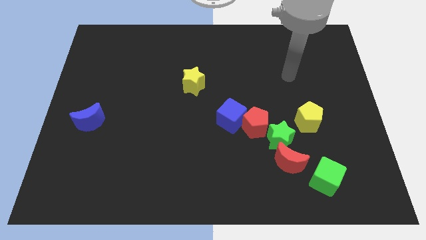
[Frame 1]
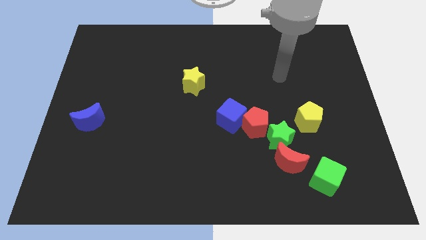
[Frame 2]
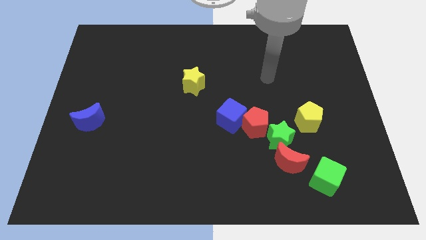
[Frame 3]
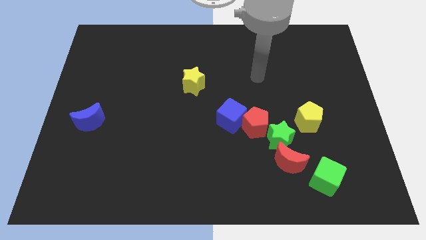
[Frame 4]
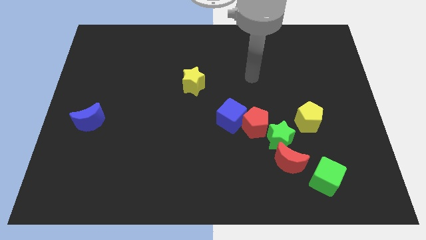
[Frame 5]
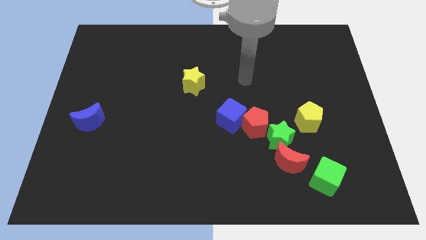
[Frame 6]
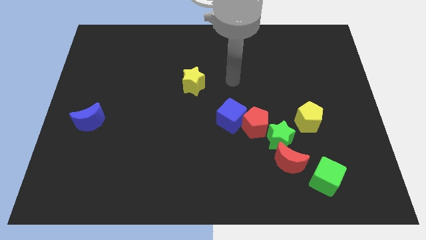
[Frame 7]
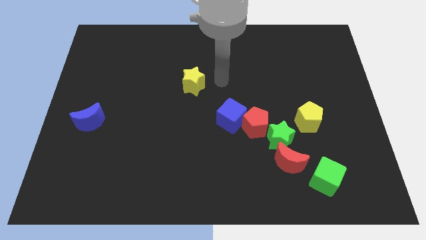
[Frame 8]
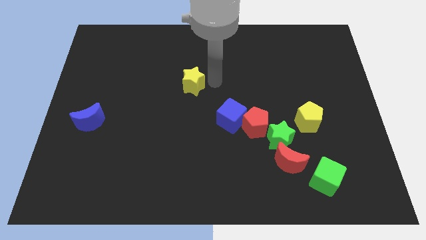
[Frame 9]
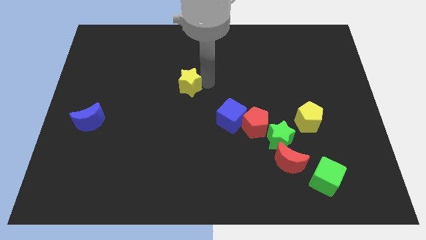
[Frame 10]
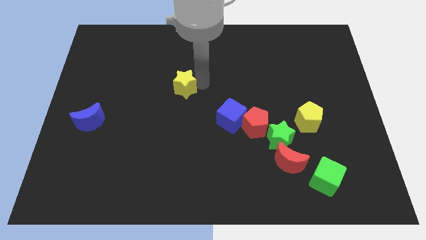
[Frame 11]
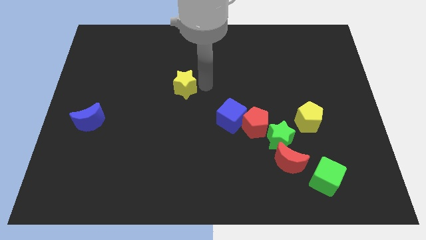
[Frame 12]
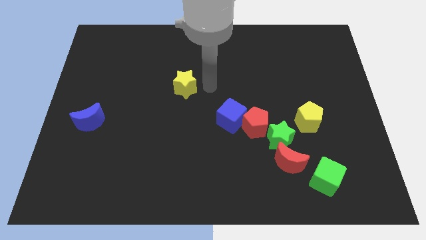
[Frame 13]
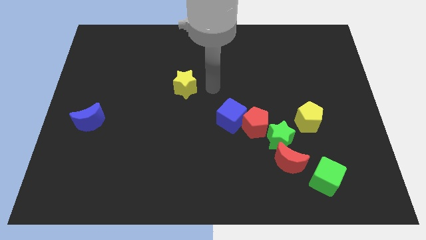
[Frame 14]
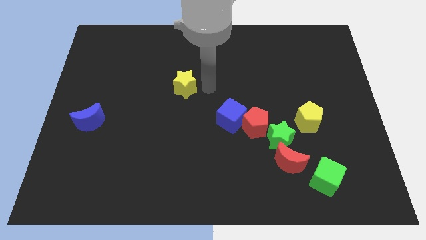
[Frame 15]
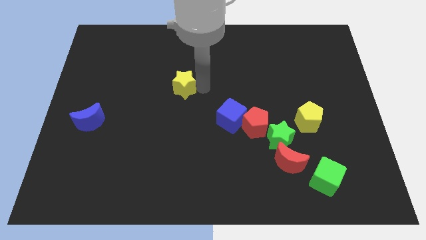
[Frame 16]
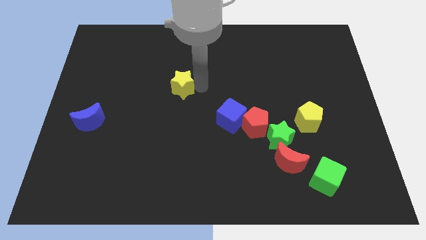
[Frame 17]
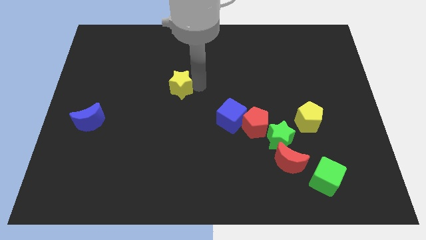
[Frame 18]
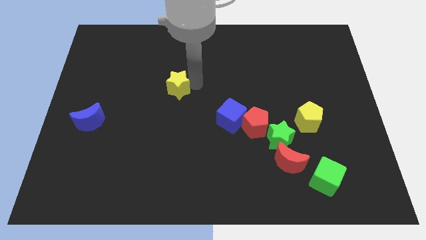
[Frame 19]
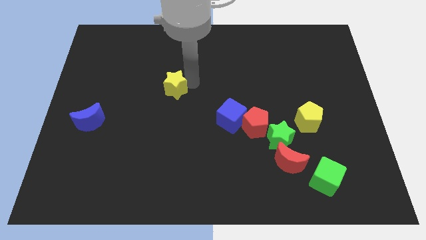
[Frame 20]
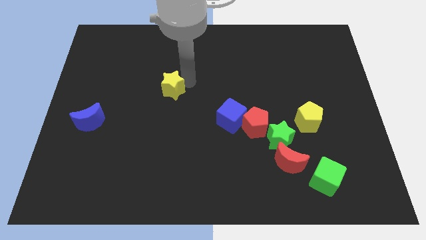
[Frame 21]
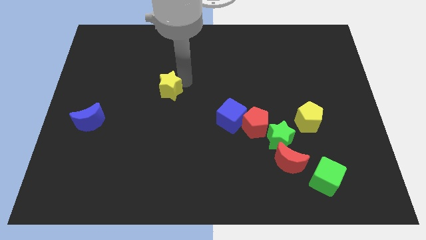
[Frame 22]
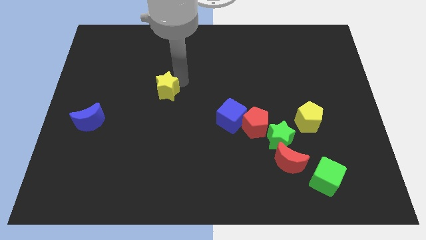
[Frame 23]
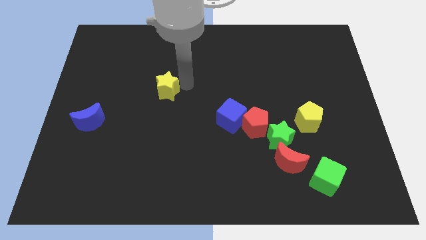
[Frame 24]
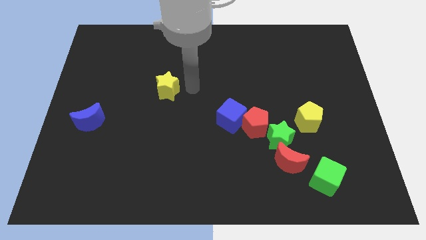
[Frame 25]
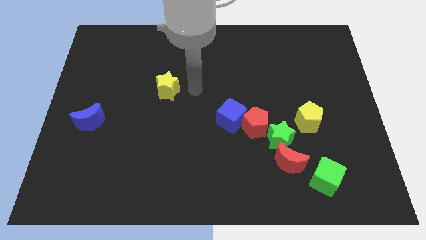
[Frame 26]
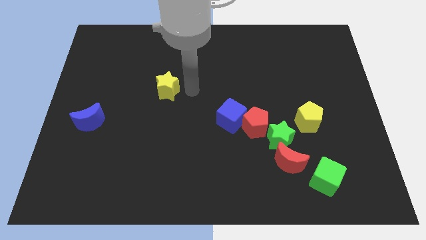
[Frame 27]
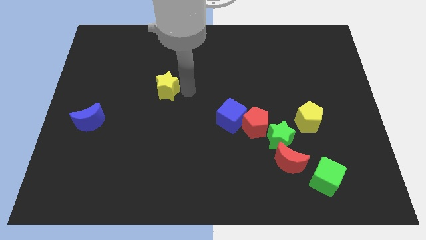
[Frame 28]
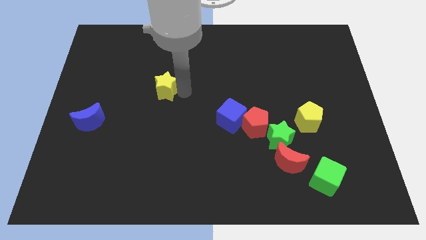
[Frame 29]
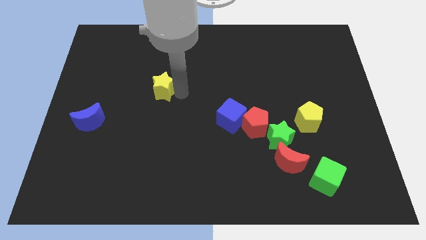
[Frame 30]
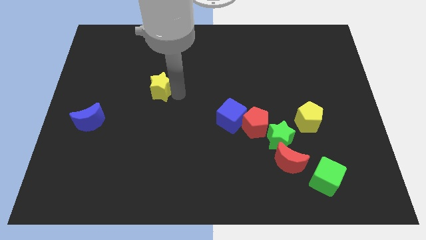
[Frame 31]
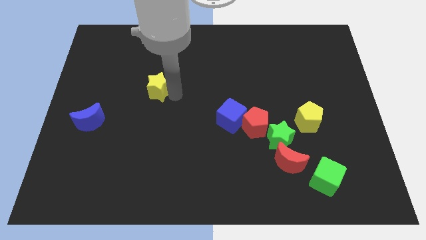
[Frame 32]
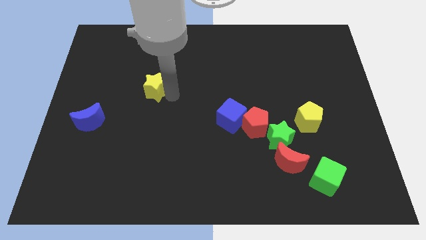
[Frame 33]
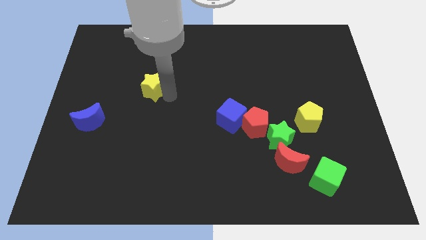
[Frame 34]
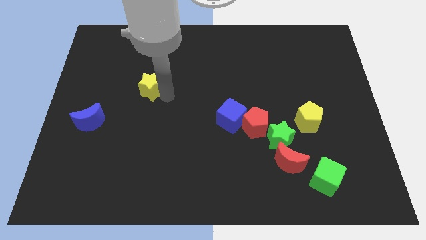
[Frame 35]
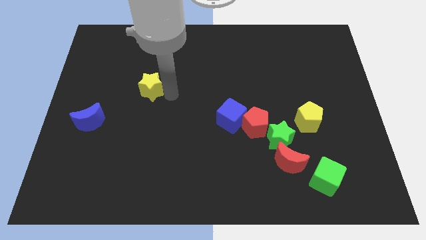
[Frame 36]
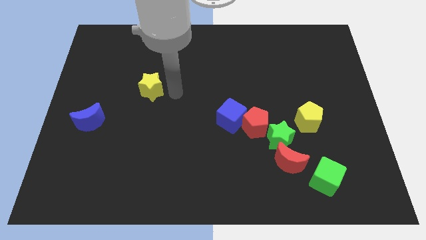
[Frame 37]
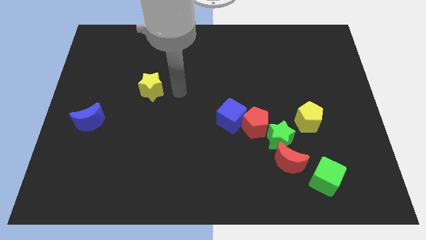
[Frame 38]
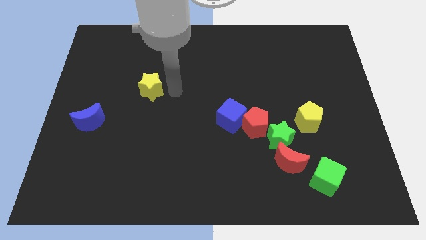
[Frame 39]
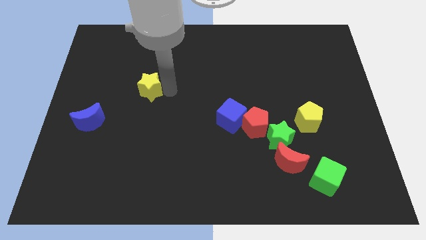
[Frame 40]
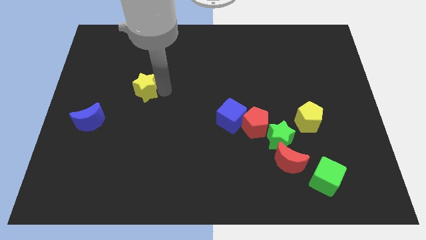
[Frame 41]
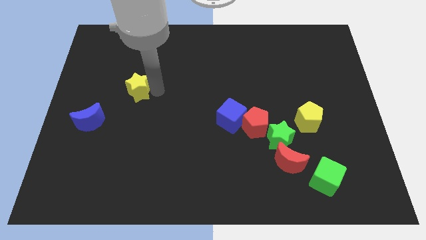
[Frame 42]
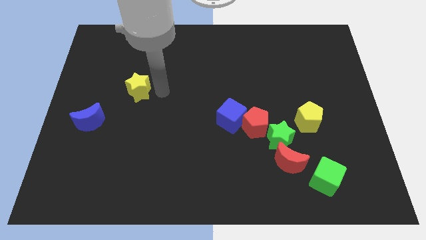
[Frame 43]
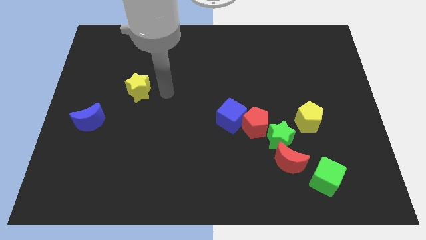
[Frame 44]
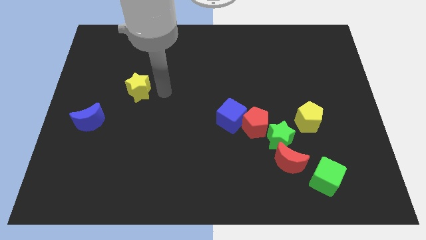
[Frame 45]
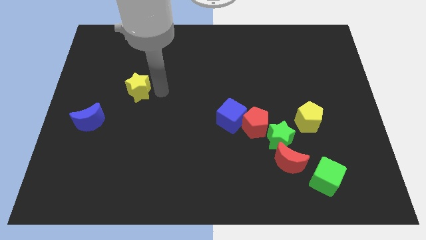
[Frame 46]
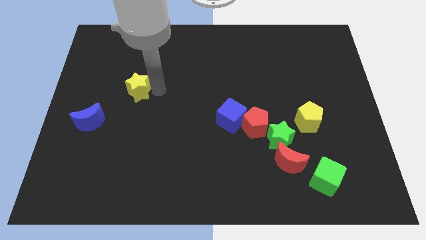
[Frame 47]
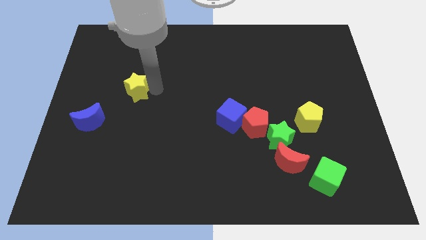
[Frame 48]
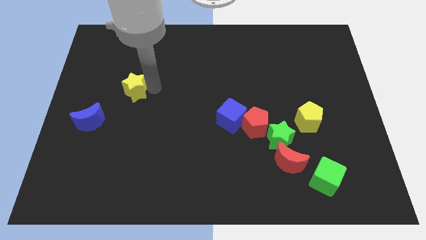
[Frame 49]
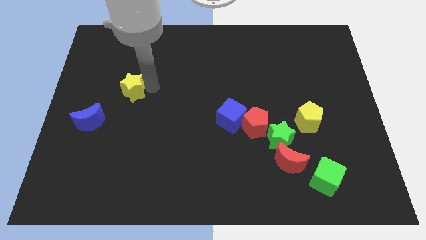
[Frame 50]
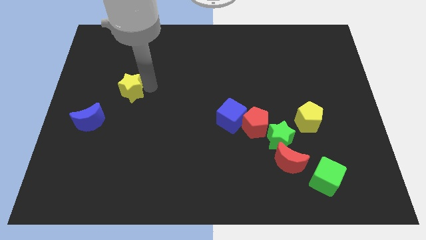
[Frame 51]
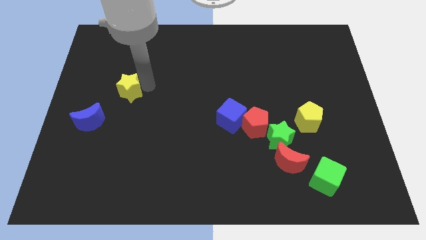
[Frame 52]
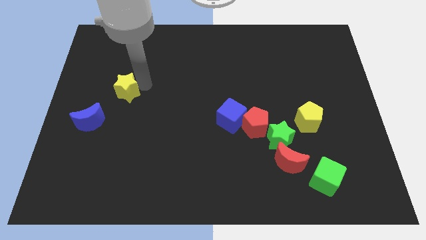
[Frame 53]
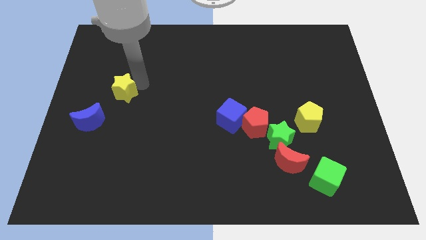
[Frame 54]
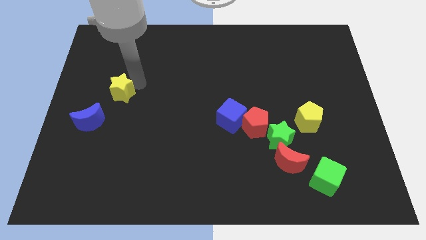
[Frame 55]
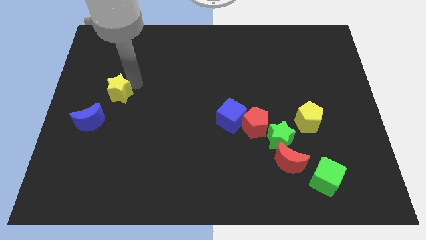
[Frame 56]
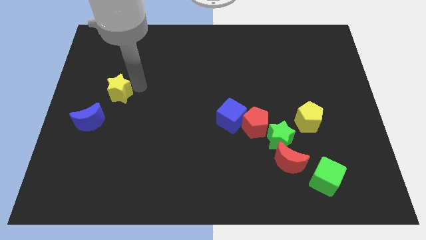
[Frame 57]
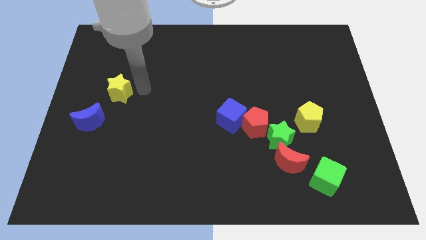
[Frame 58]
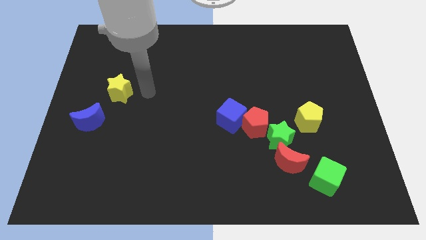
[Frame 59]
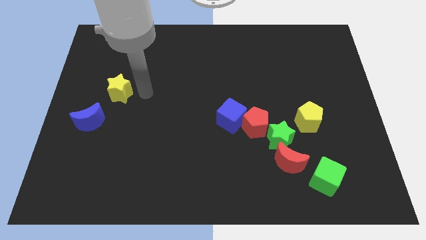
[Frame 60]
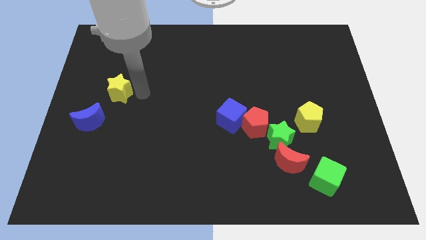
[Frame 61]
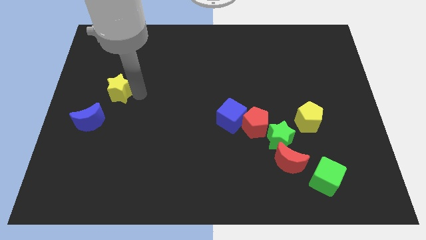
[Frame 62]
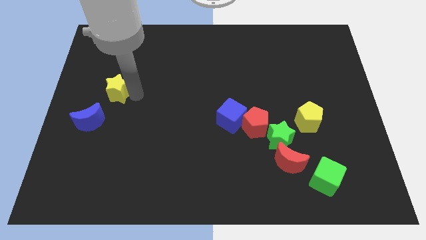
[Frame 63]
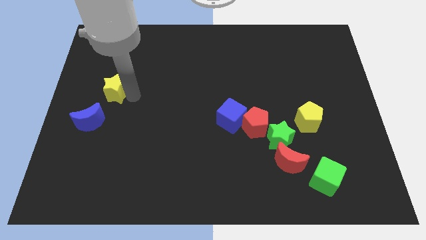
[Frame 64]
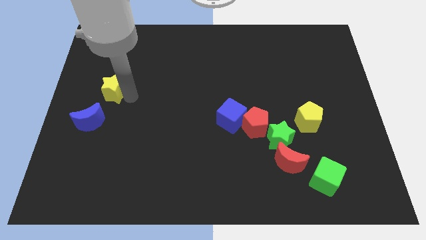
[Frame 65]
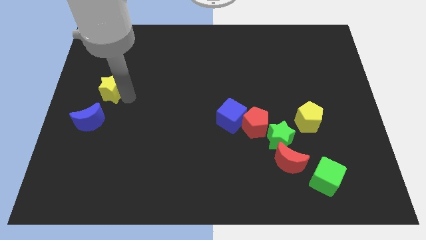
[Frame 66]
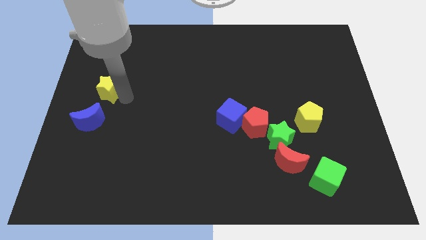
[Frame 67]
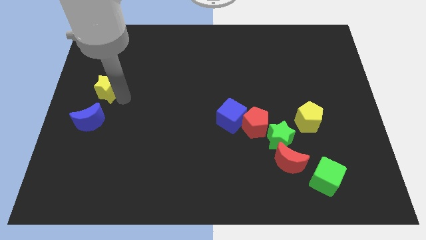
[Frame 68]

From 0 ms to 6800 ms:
push the yellow star to the left side of the board
